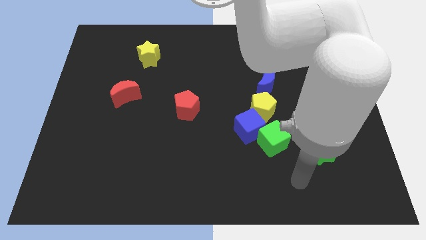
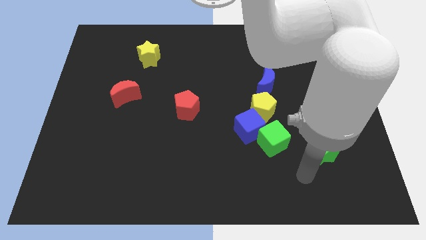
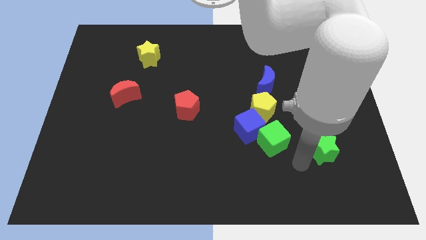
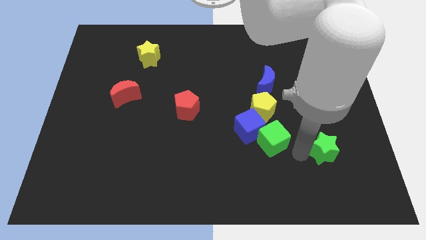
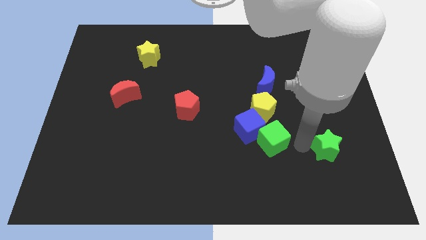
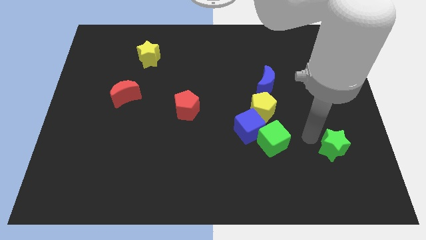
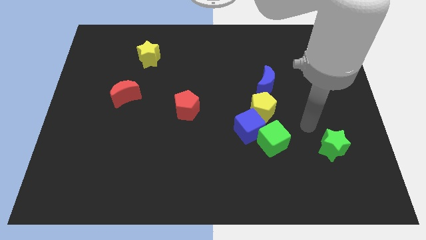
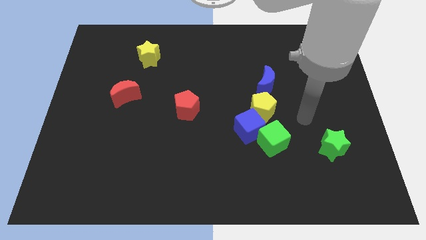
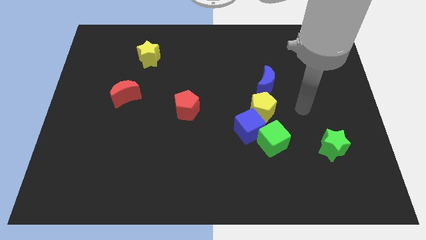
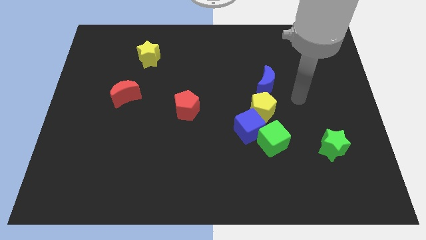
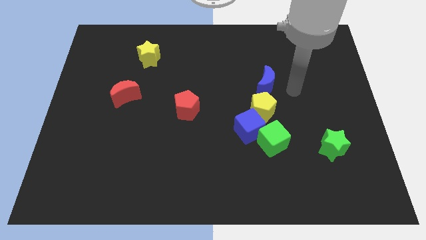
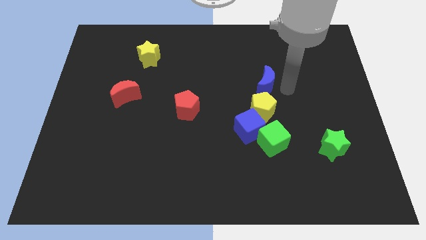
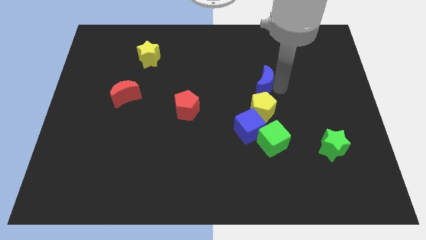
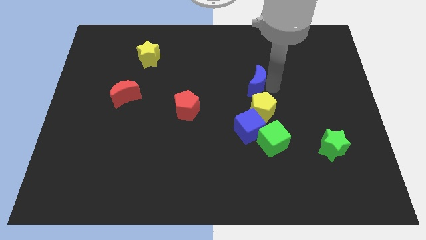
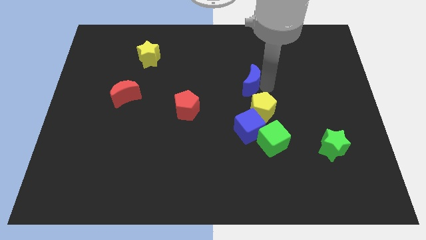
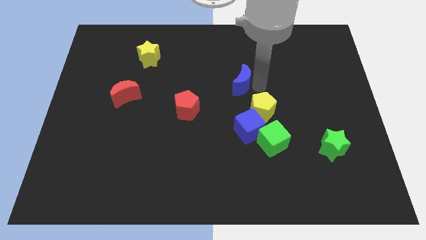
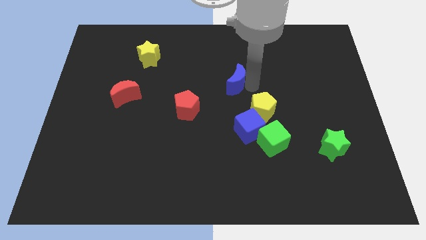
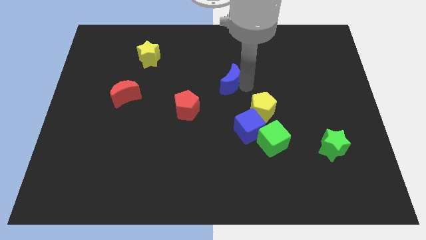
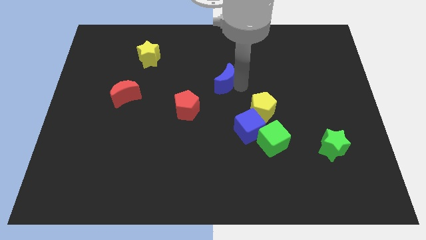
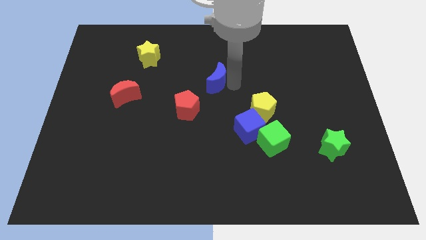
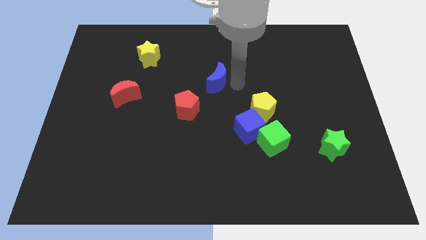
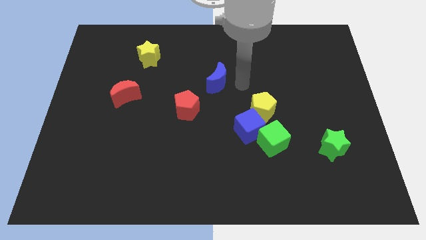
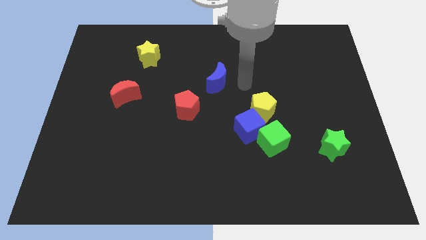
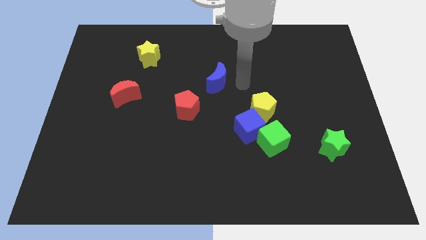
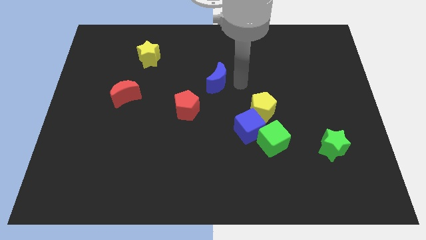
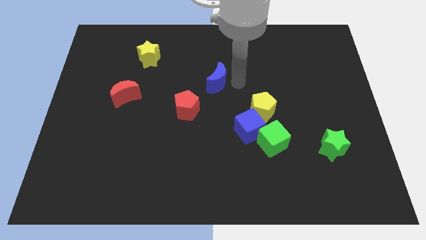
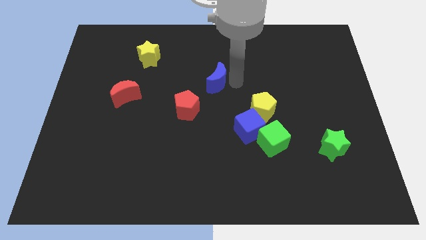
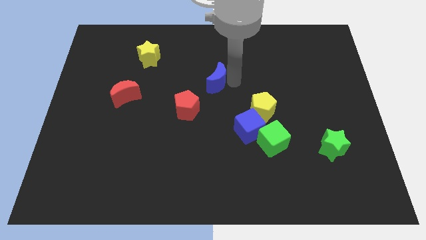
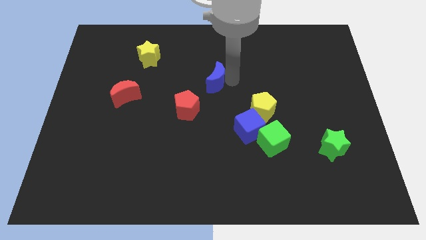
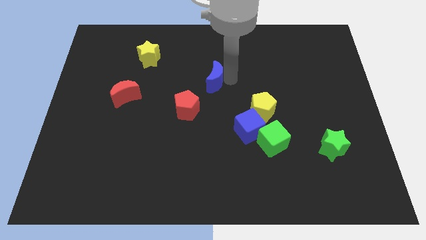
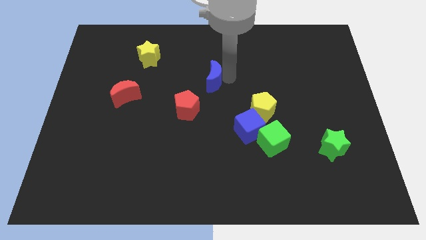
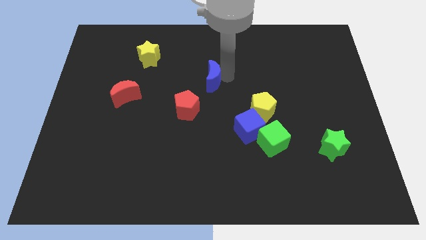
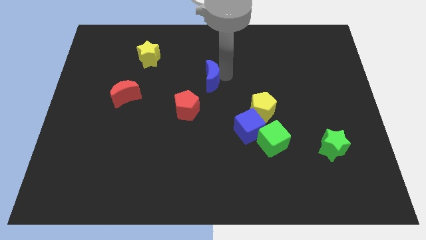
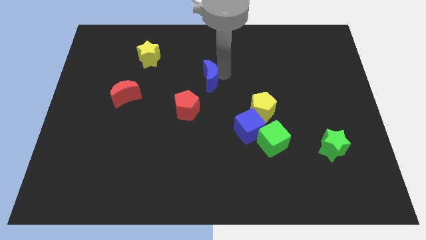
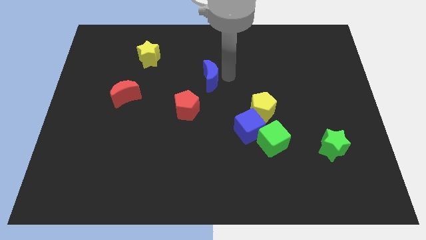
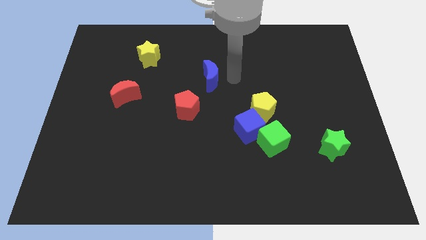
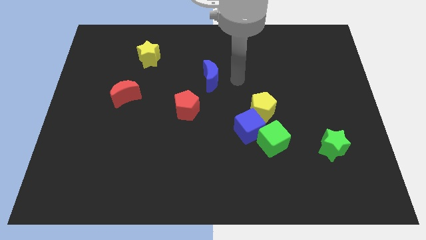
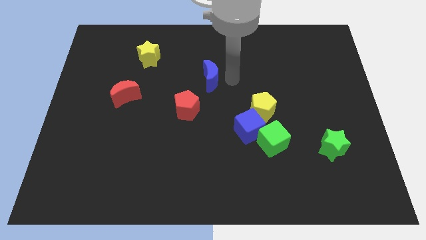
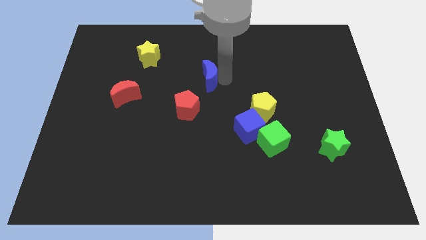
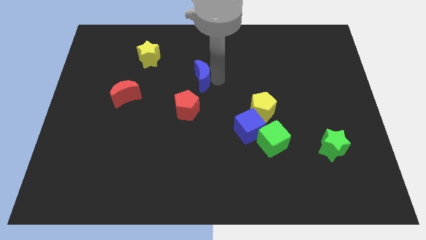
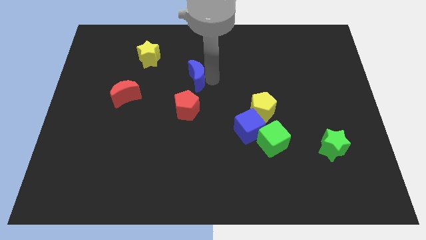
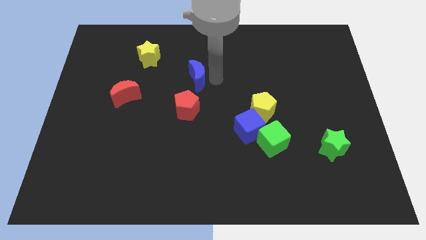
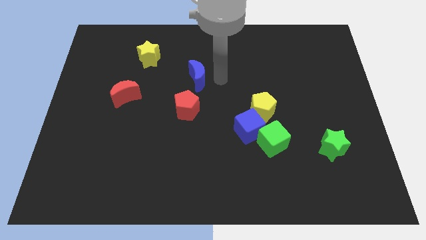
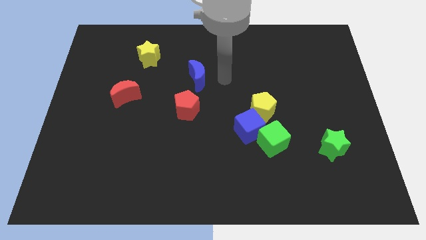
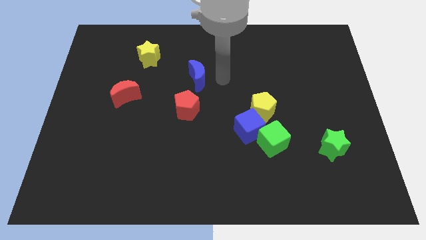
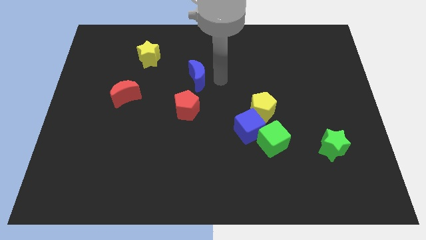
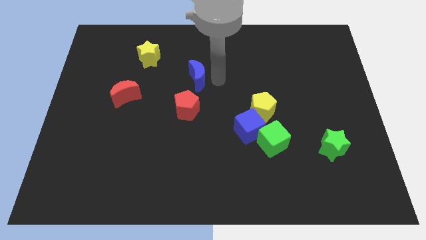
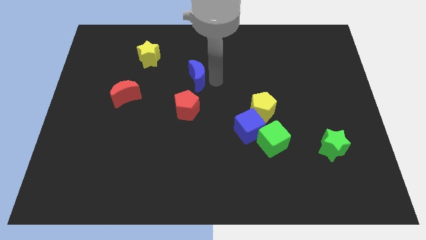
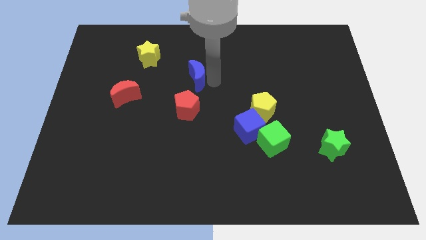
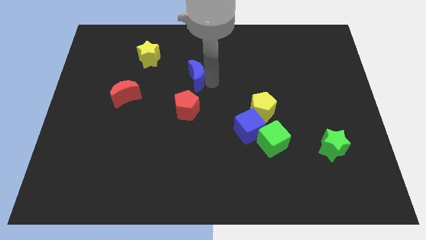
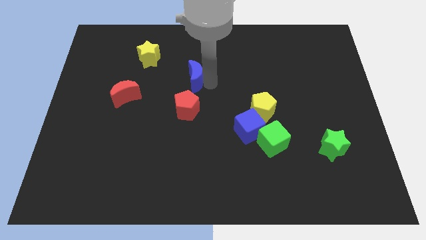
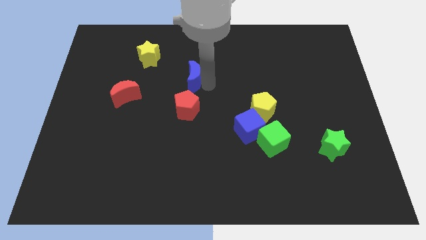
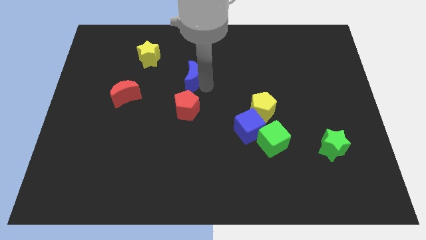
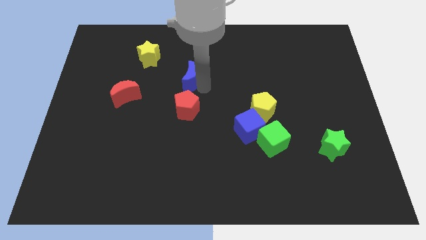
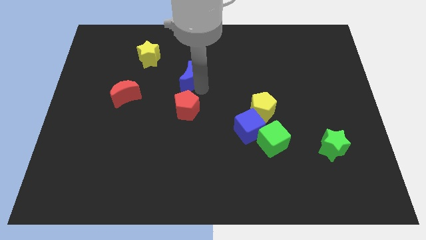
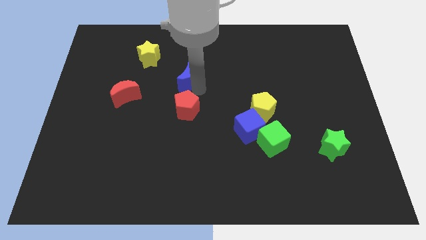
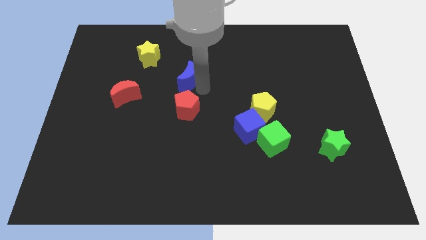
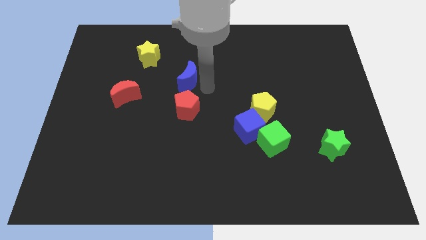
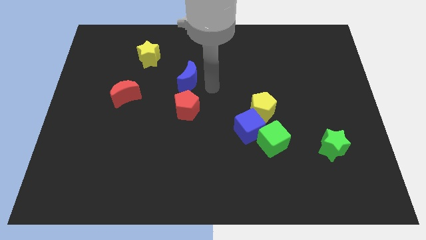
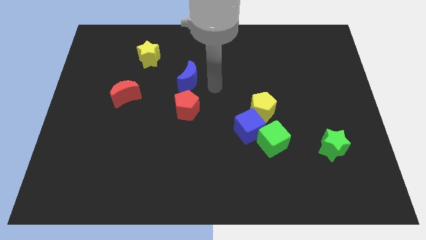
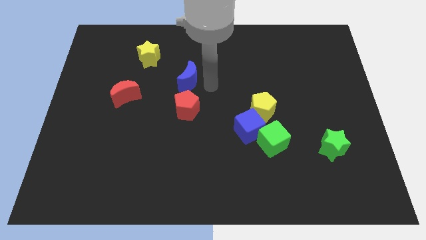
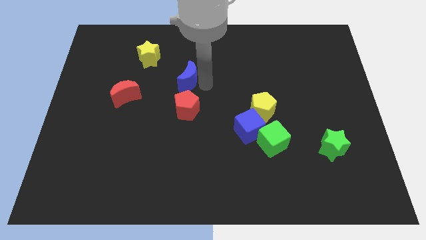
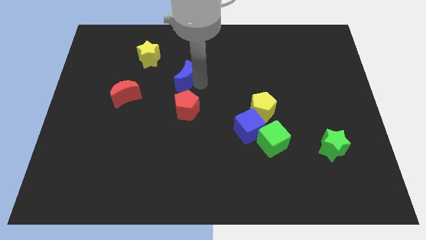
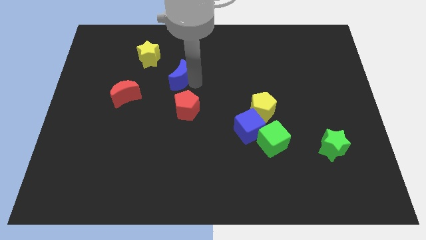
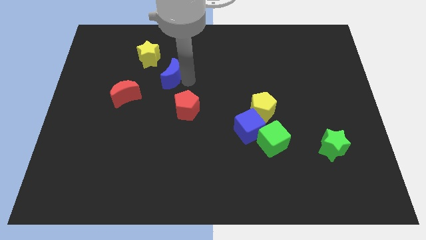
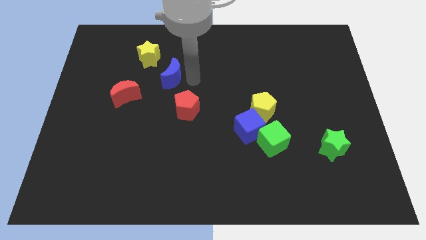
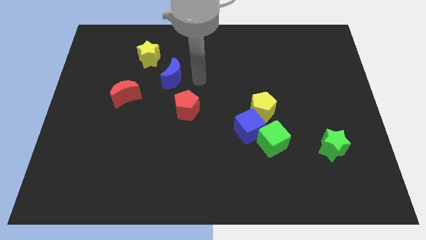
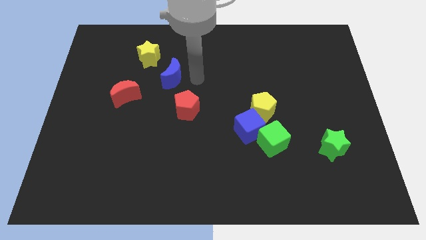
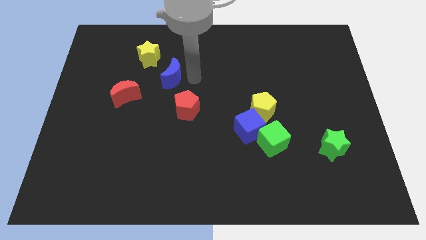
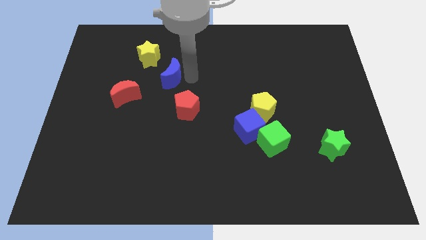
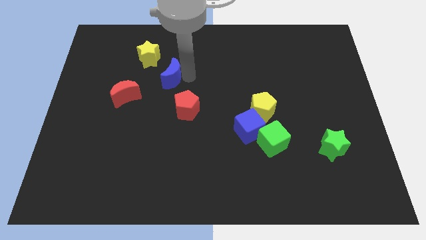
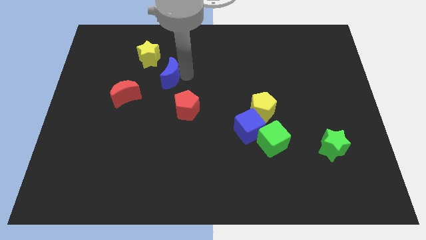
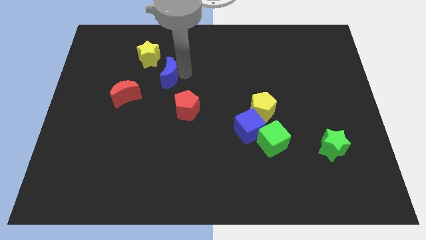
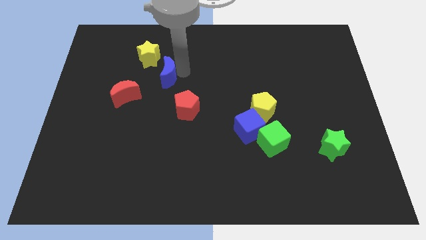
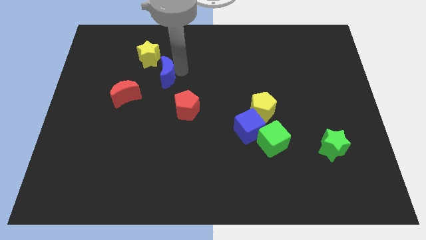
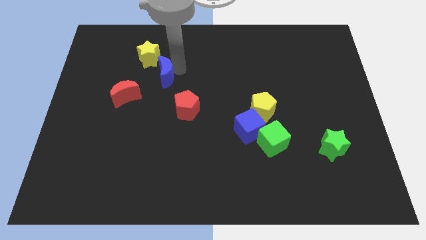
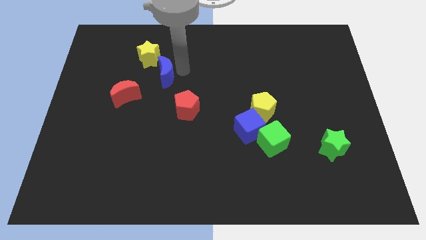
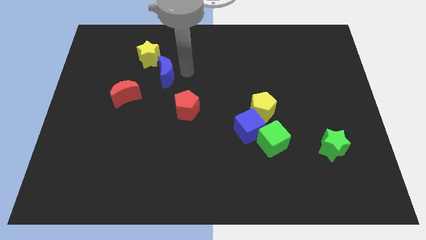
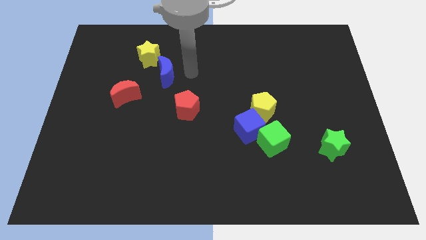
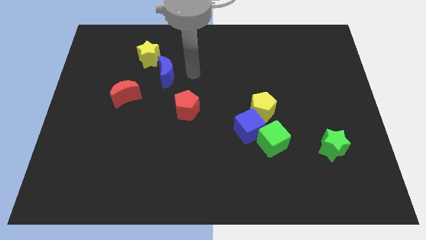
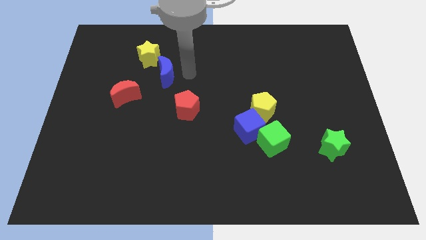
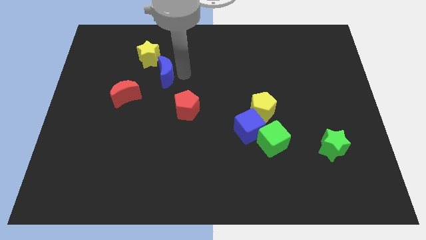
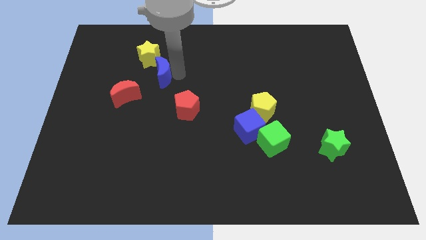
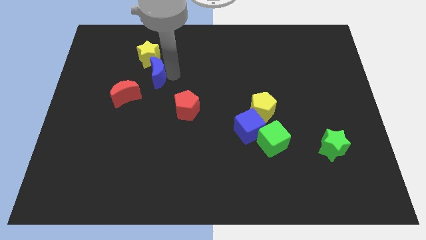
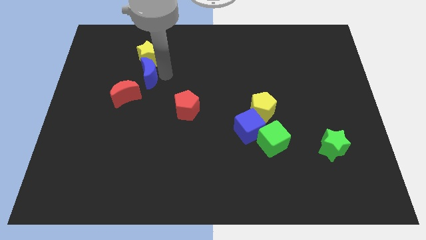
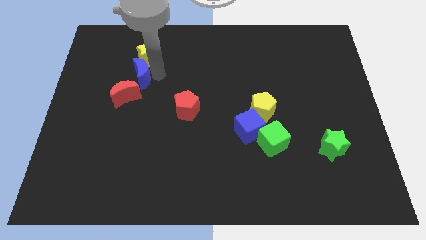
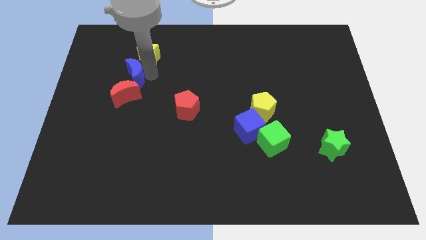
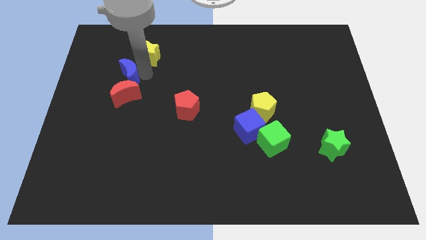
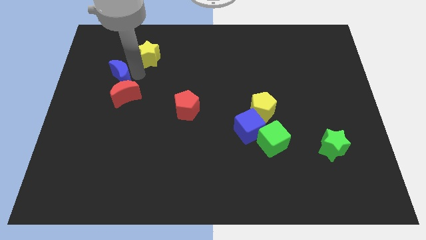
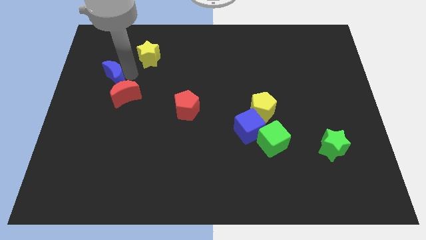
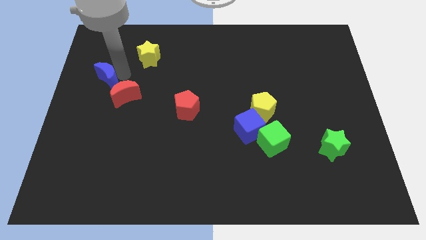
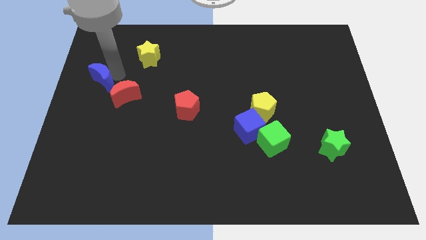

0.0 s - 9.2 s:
push the blue moon to the left side
